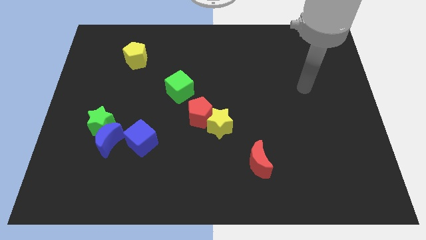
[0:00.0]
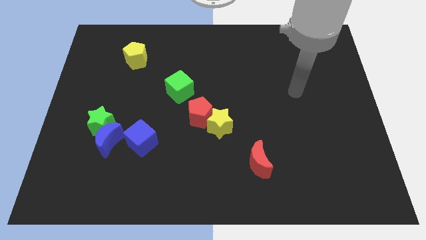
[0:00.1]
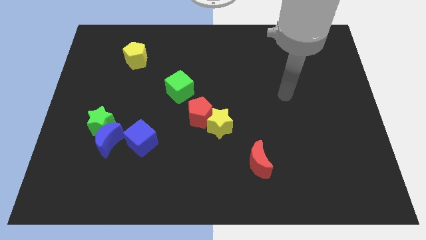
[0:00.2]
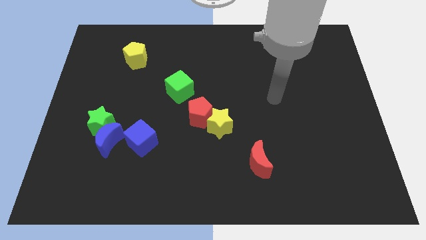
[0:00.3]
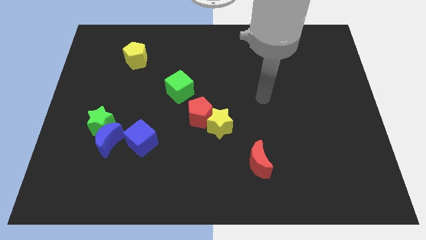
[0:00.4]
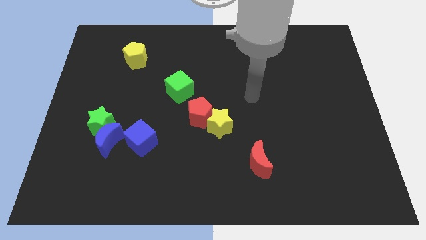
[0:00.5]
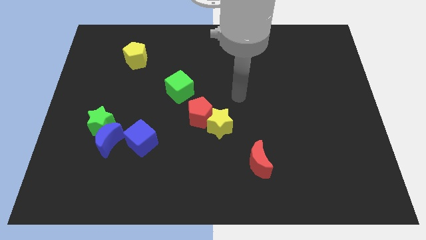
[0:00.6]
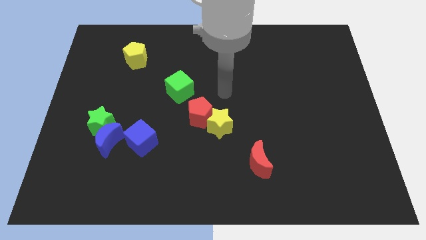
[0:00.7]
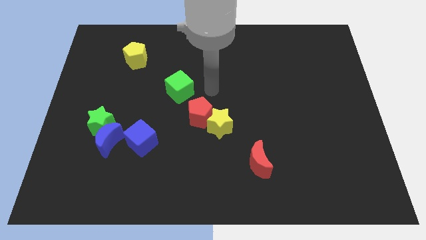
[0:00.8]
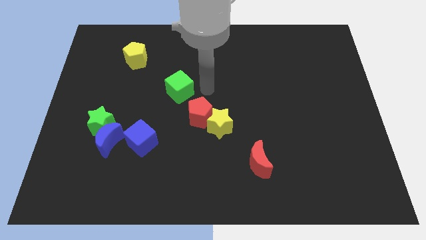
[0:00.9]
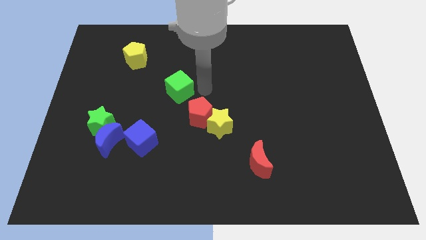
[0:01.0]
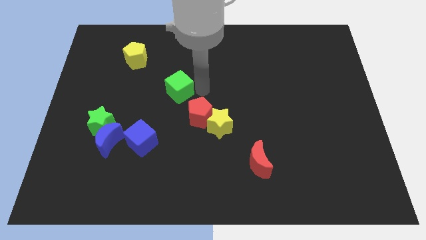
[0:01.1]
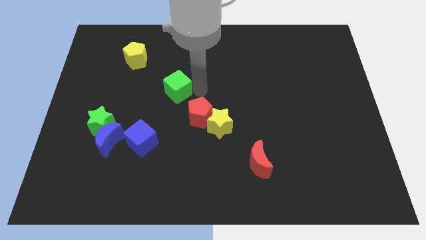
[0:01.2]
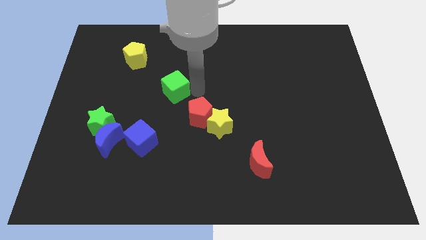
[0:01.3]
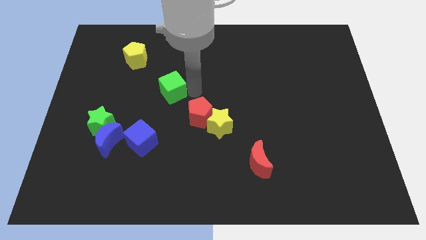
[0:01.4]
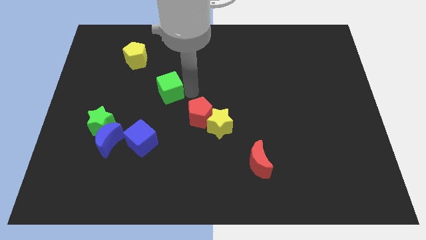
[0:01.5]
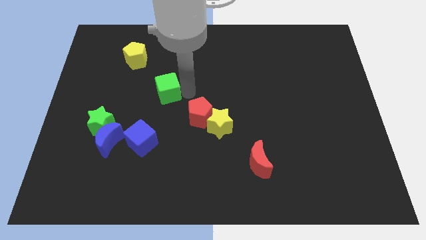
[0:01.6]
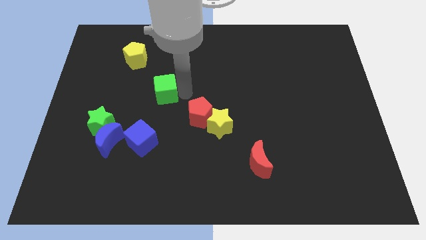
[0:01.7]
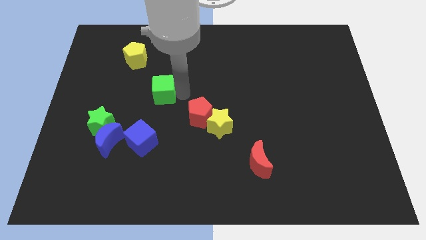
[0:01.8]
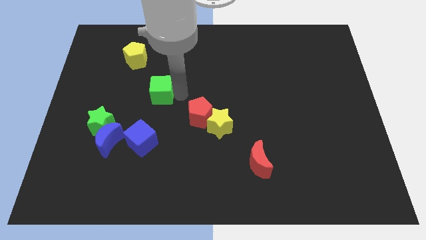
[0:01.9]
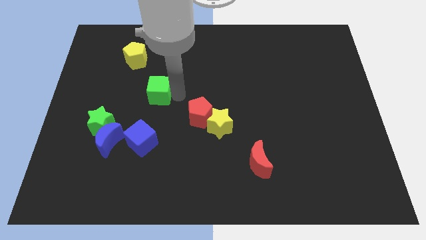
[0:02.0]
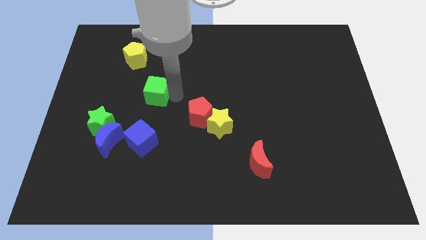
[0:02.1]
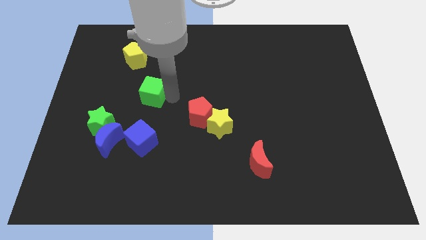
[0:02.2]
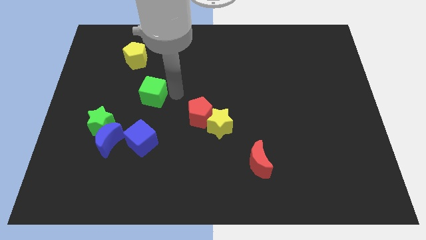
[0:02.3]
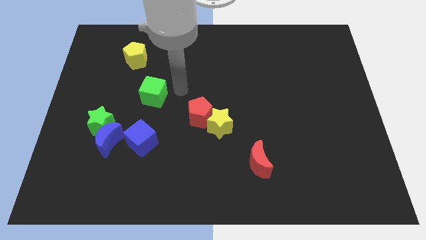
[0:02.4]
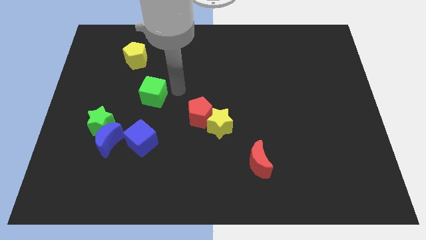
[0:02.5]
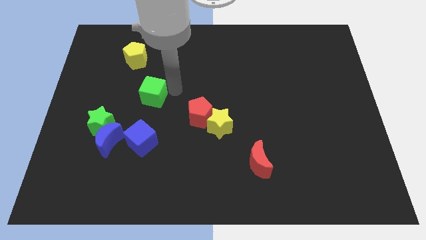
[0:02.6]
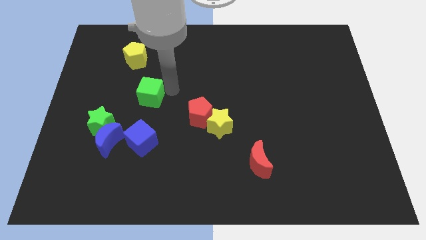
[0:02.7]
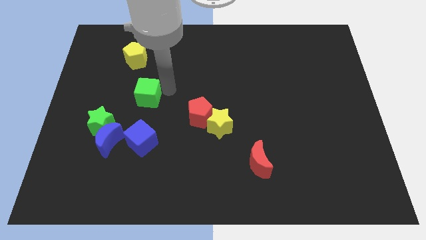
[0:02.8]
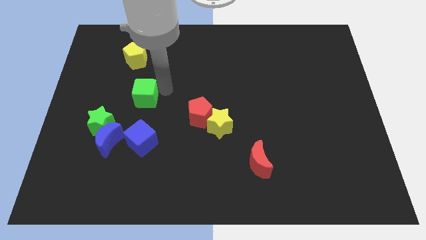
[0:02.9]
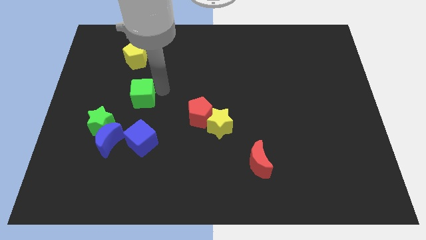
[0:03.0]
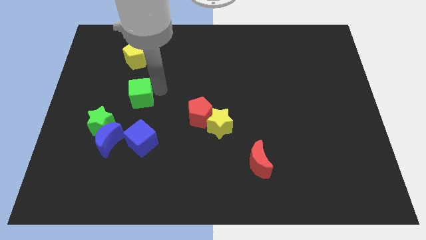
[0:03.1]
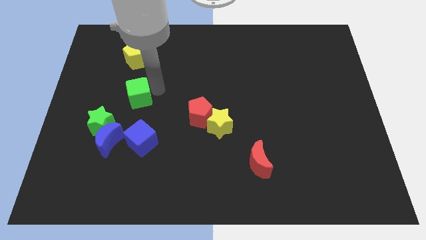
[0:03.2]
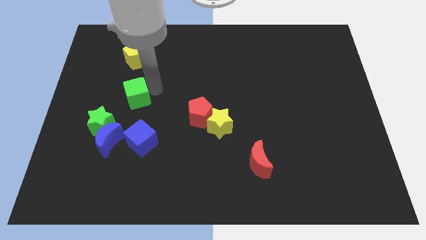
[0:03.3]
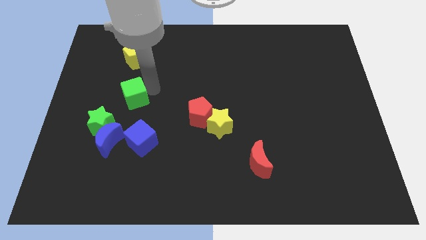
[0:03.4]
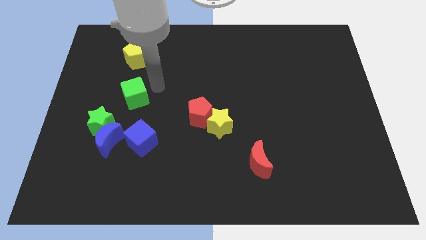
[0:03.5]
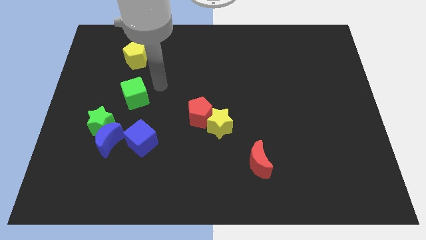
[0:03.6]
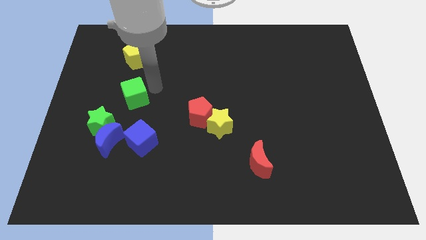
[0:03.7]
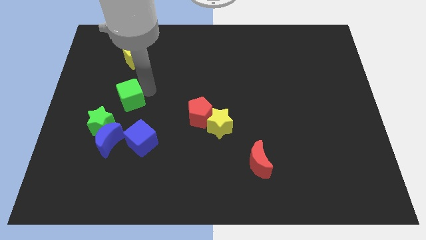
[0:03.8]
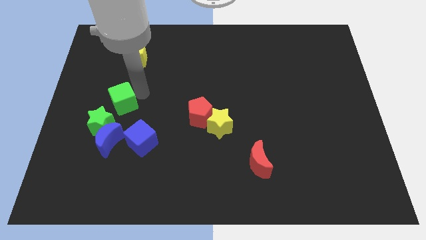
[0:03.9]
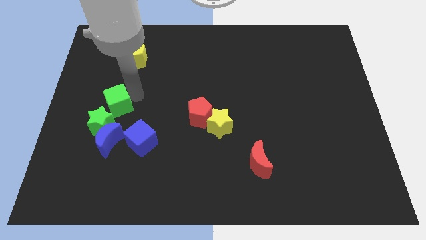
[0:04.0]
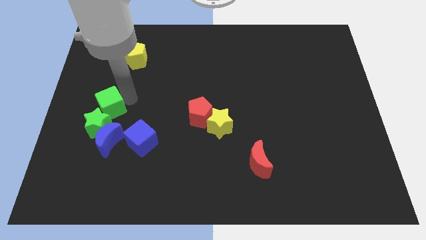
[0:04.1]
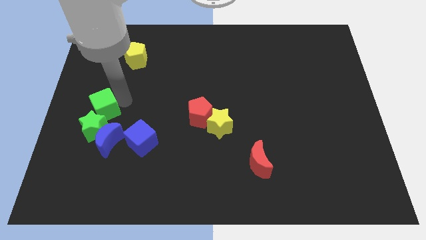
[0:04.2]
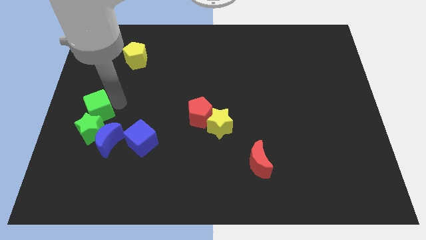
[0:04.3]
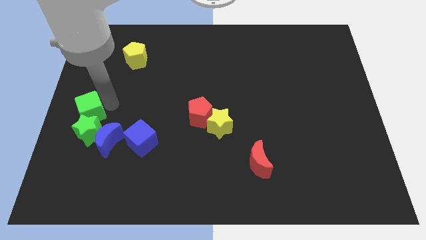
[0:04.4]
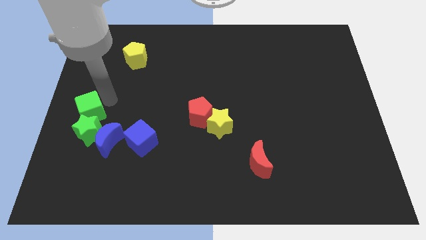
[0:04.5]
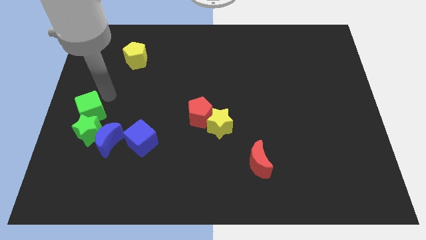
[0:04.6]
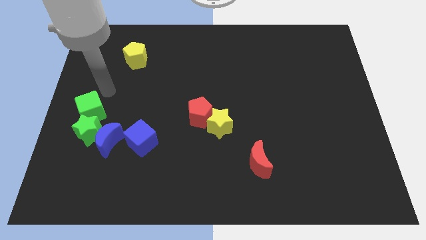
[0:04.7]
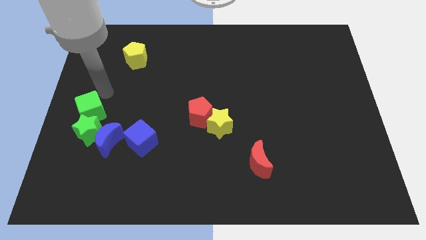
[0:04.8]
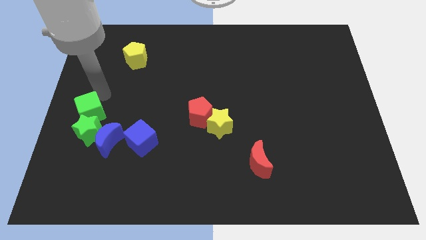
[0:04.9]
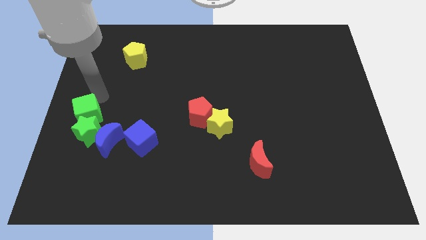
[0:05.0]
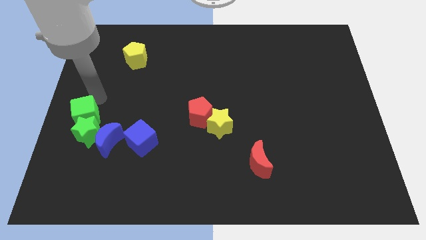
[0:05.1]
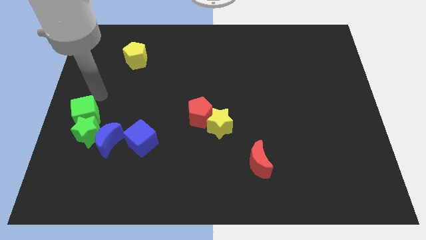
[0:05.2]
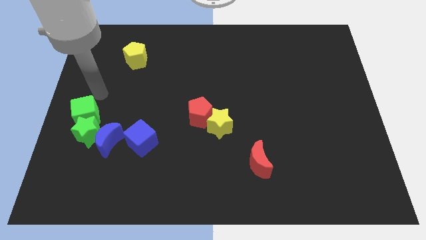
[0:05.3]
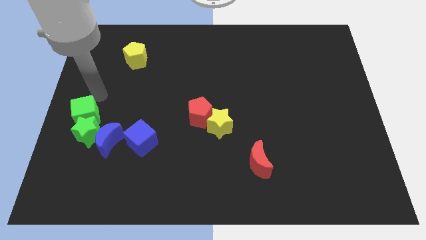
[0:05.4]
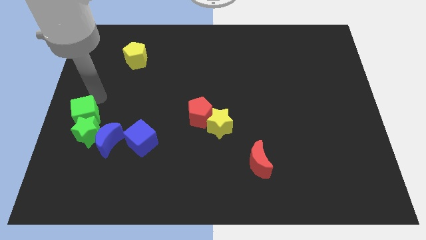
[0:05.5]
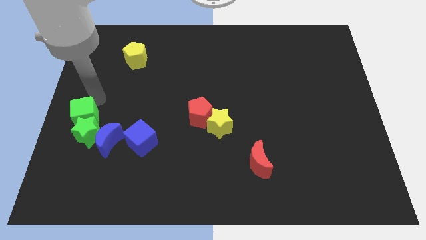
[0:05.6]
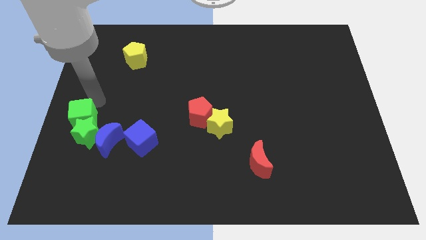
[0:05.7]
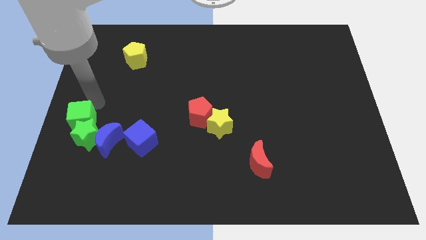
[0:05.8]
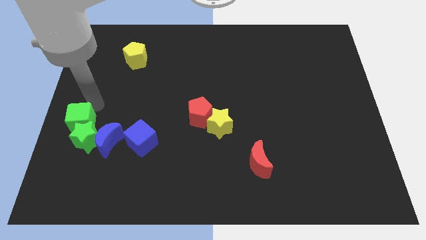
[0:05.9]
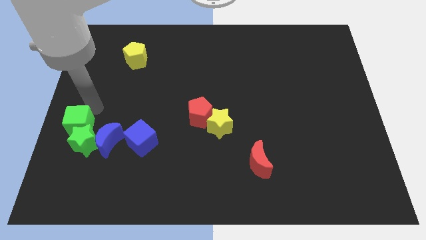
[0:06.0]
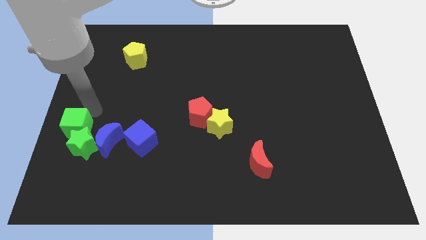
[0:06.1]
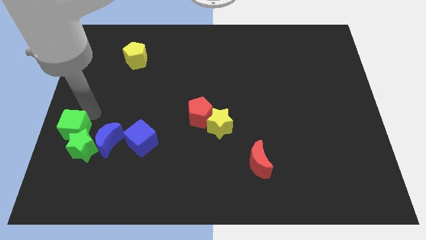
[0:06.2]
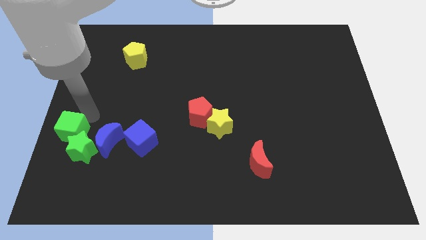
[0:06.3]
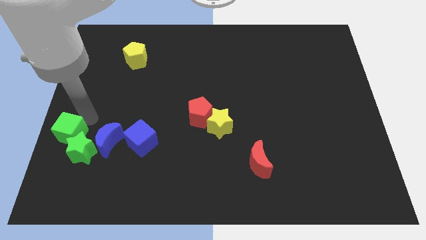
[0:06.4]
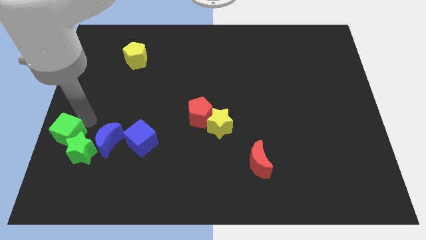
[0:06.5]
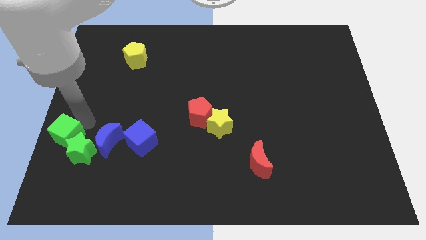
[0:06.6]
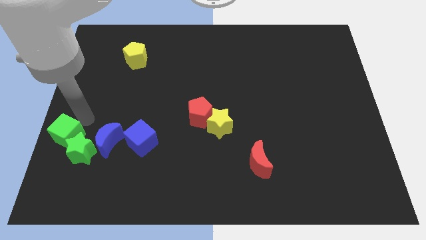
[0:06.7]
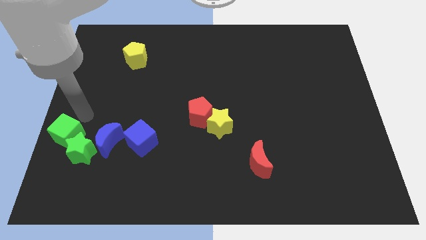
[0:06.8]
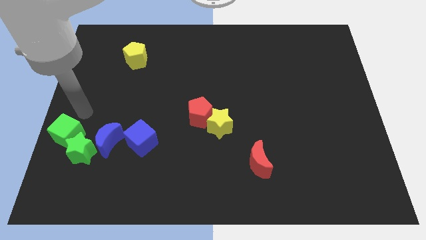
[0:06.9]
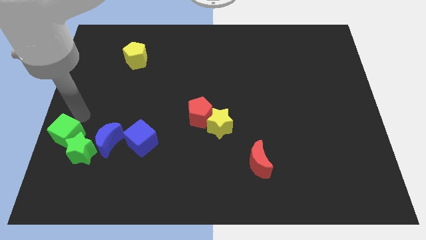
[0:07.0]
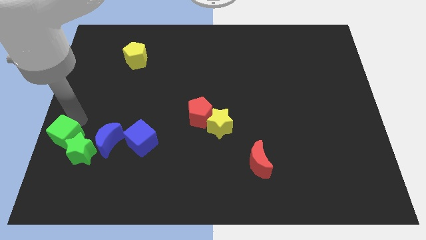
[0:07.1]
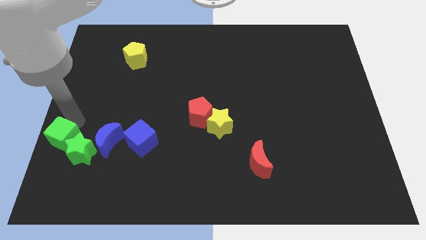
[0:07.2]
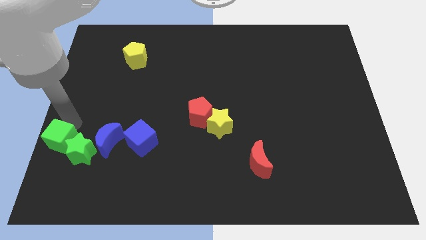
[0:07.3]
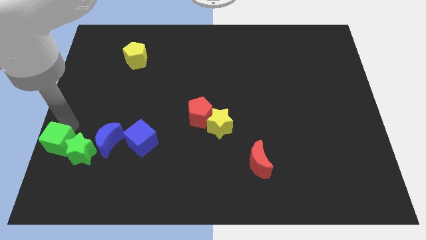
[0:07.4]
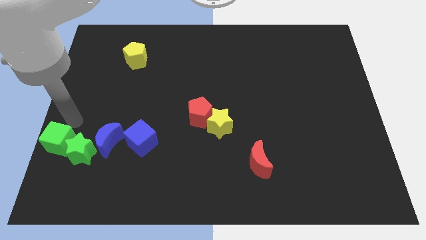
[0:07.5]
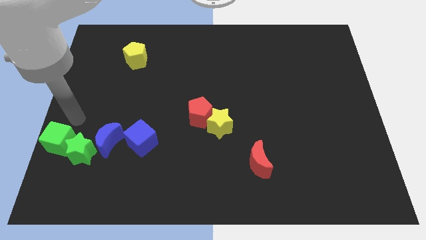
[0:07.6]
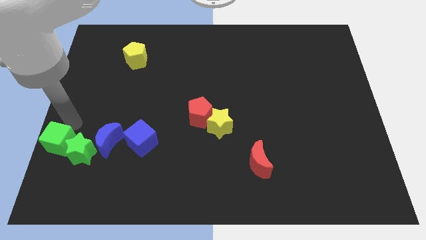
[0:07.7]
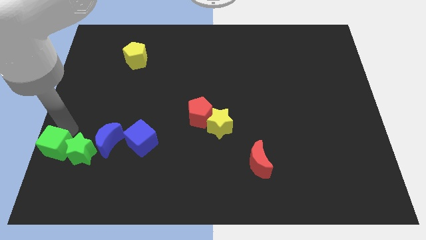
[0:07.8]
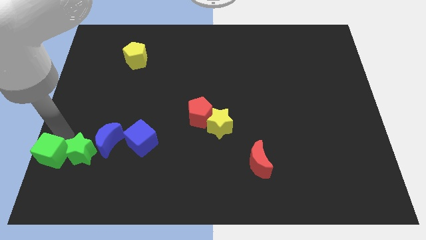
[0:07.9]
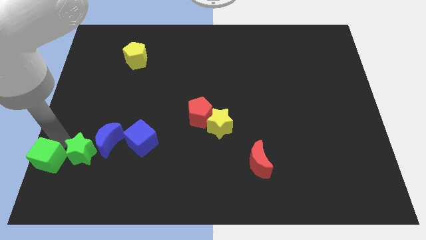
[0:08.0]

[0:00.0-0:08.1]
push the green cube to the bottom left of the board
